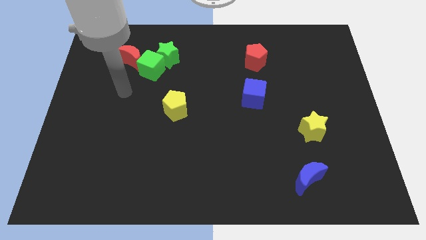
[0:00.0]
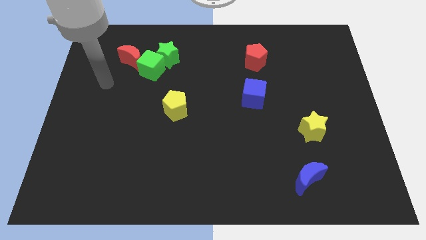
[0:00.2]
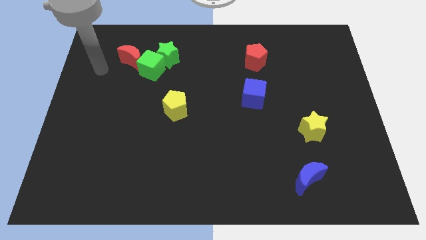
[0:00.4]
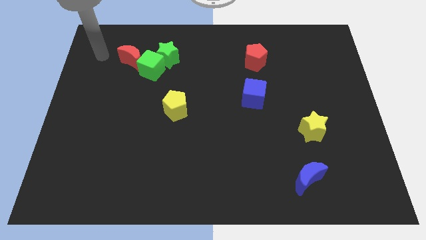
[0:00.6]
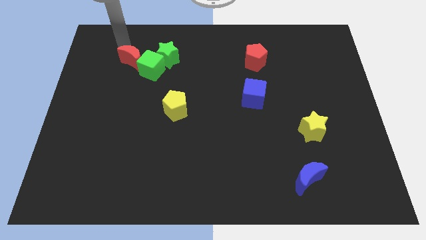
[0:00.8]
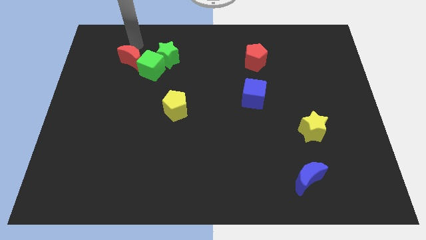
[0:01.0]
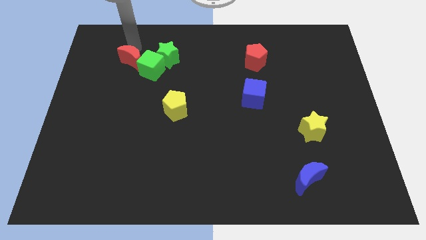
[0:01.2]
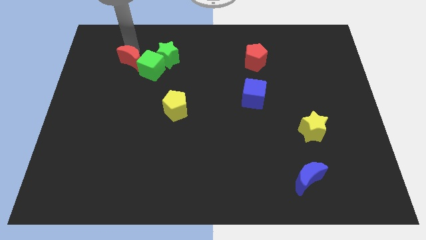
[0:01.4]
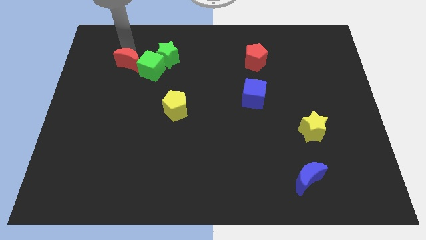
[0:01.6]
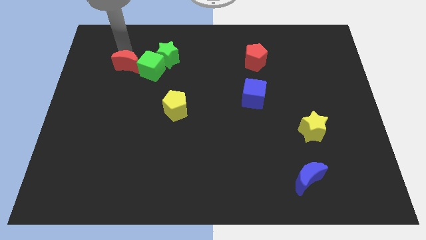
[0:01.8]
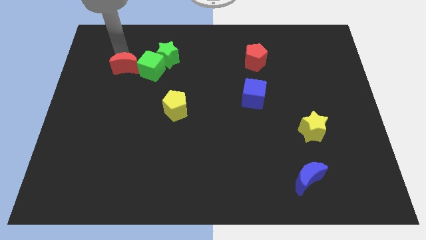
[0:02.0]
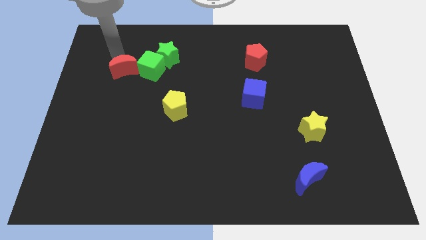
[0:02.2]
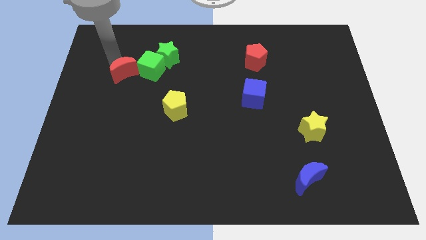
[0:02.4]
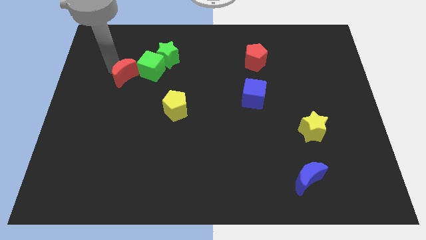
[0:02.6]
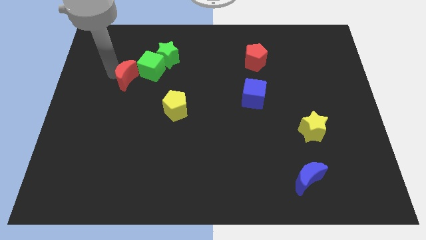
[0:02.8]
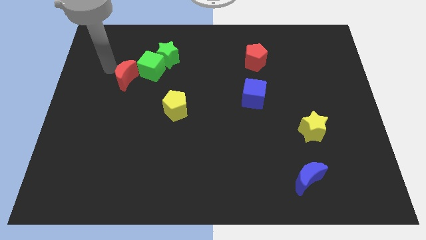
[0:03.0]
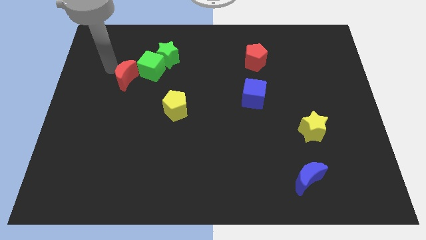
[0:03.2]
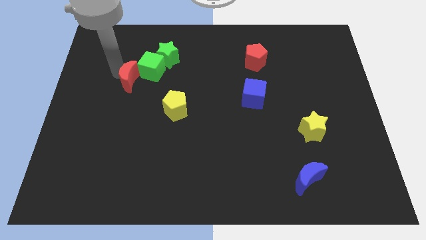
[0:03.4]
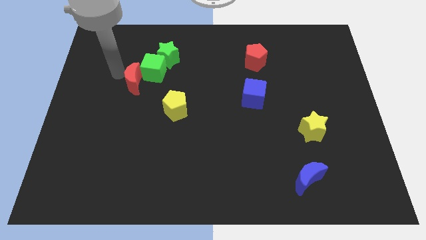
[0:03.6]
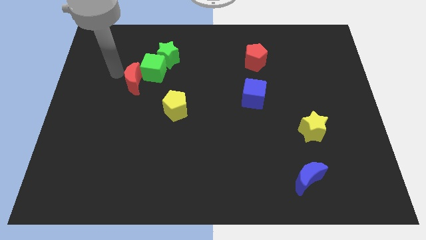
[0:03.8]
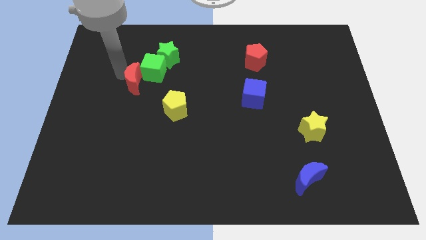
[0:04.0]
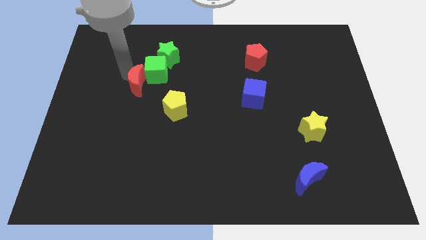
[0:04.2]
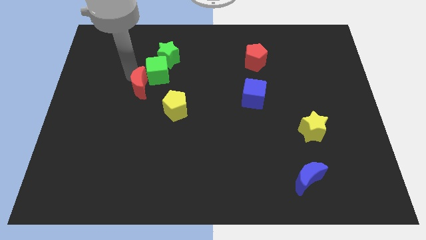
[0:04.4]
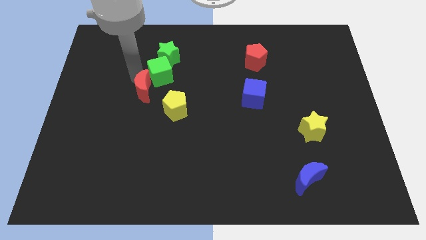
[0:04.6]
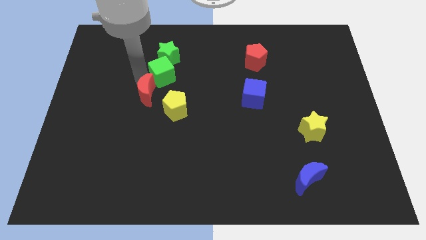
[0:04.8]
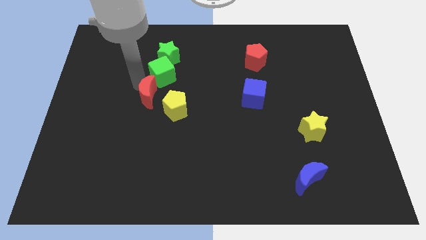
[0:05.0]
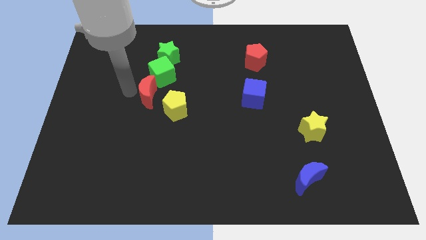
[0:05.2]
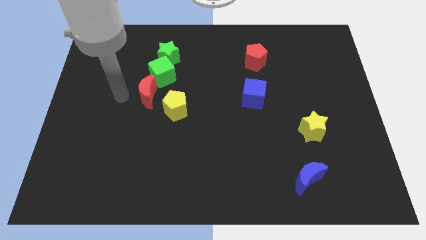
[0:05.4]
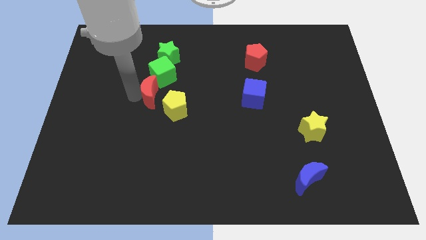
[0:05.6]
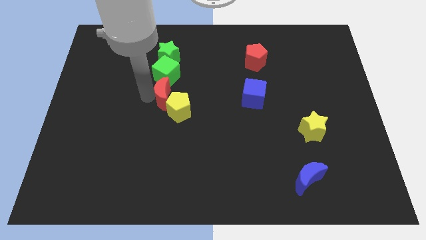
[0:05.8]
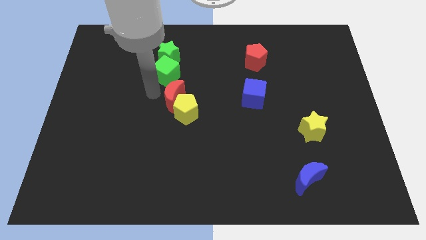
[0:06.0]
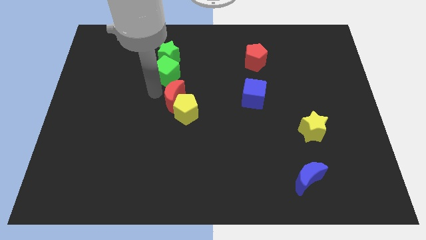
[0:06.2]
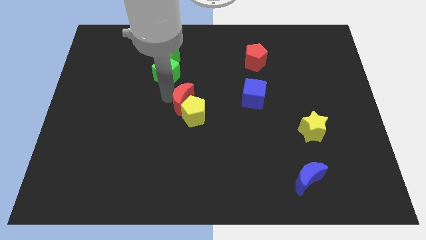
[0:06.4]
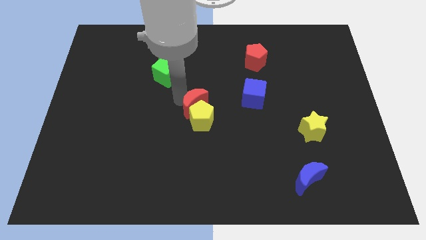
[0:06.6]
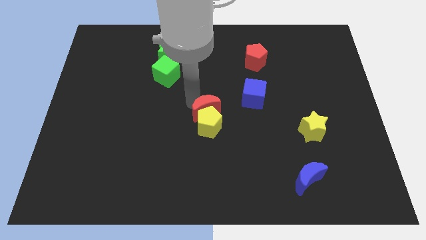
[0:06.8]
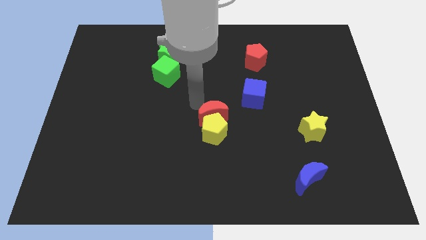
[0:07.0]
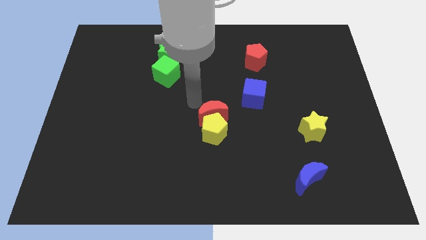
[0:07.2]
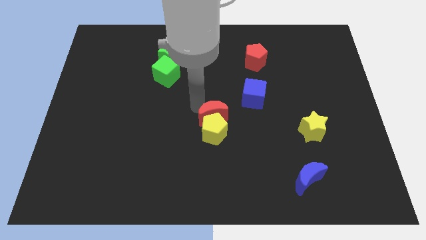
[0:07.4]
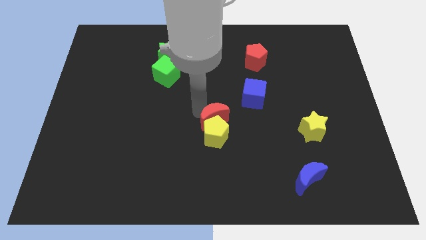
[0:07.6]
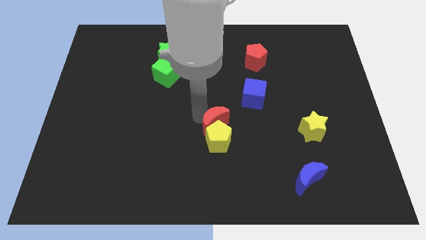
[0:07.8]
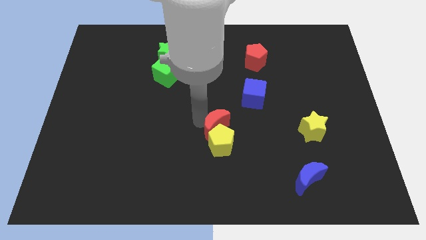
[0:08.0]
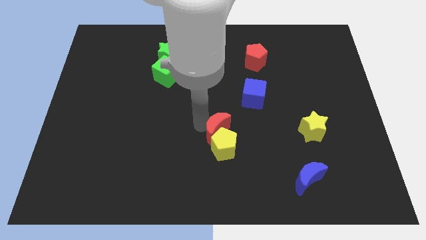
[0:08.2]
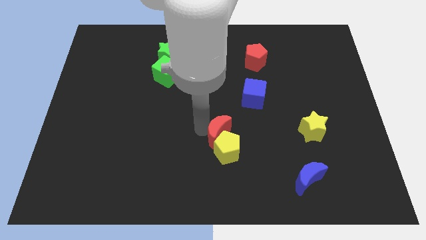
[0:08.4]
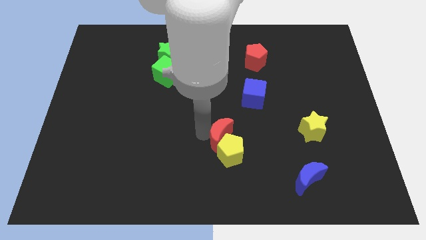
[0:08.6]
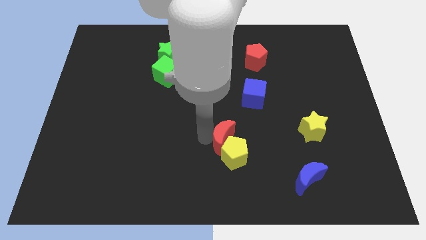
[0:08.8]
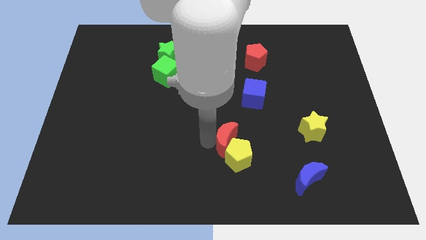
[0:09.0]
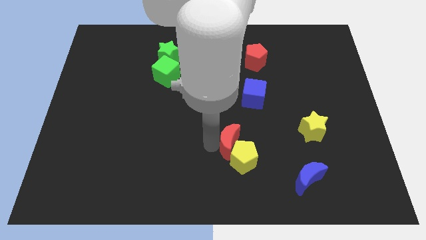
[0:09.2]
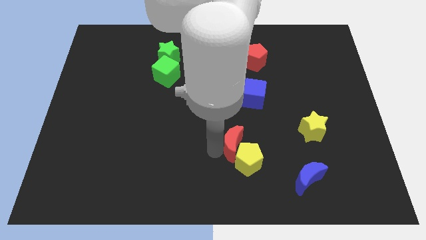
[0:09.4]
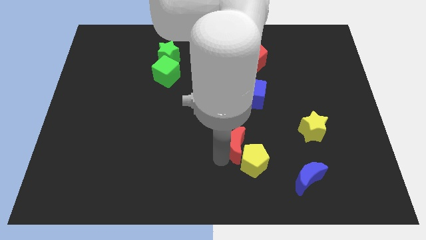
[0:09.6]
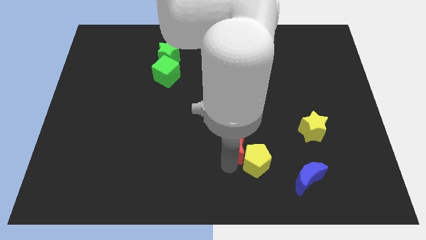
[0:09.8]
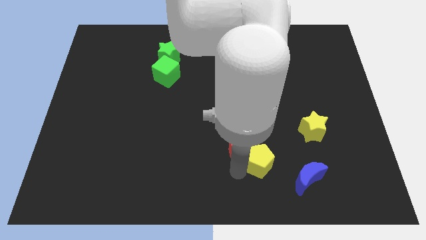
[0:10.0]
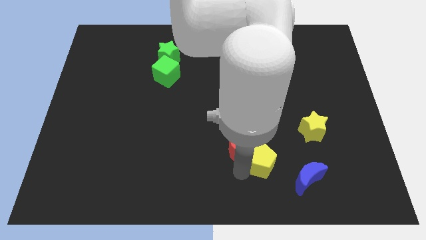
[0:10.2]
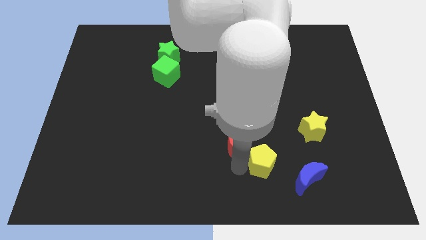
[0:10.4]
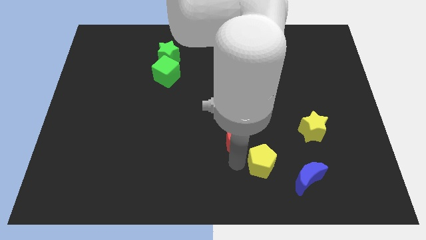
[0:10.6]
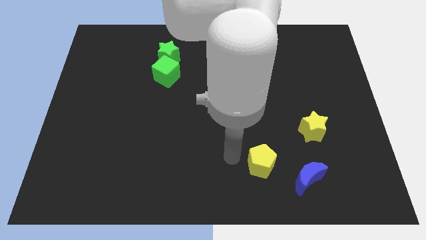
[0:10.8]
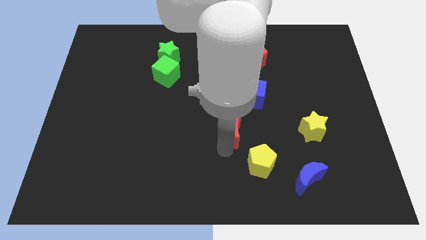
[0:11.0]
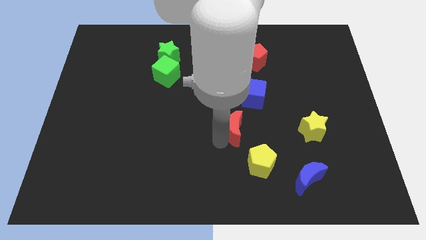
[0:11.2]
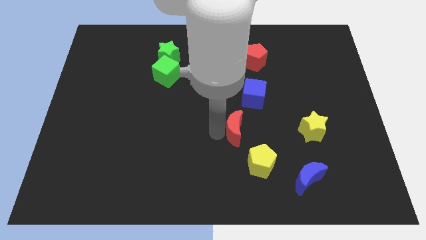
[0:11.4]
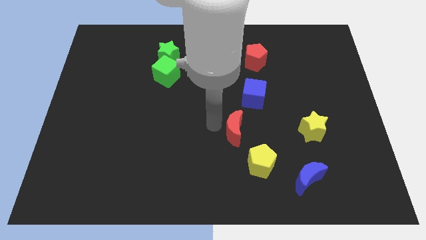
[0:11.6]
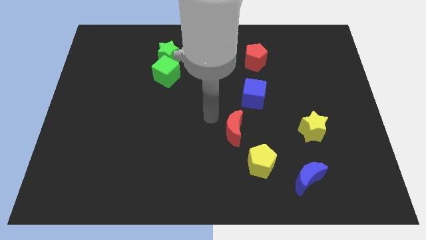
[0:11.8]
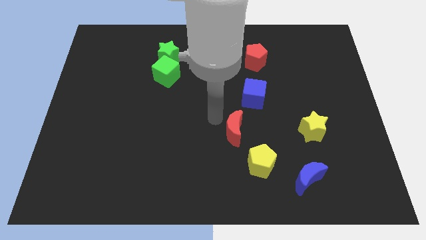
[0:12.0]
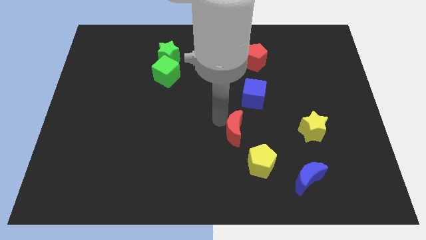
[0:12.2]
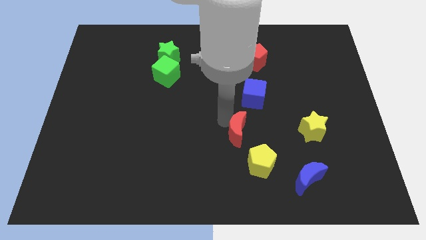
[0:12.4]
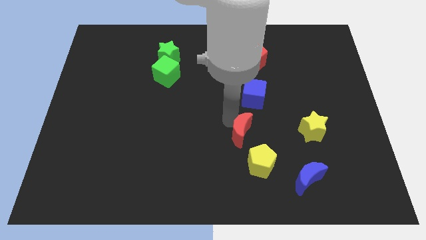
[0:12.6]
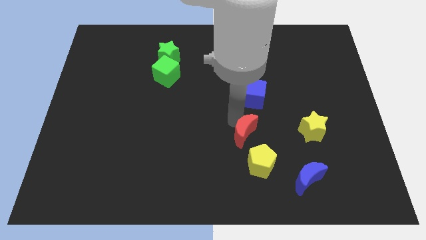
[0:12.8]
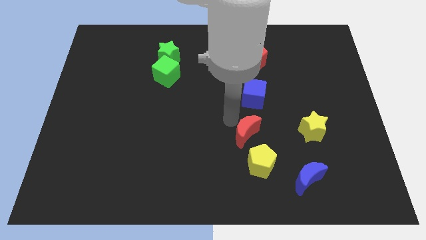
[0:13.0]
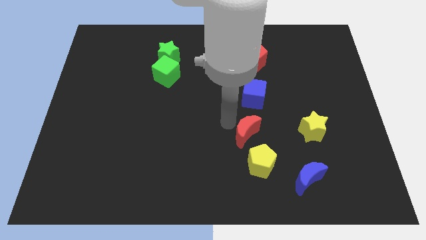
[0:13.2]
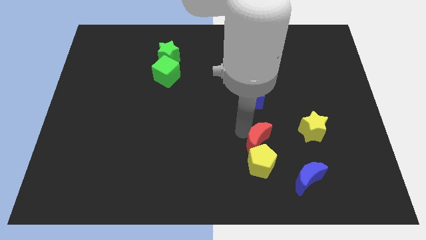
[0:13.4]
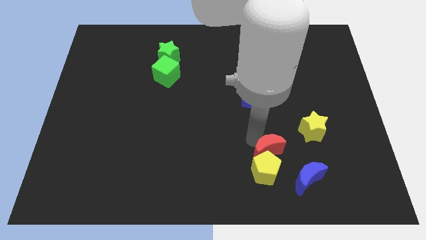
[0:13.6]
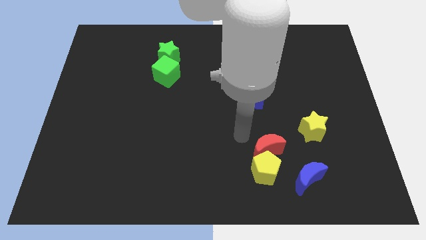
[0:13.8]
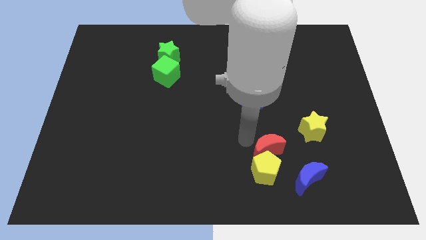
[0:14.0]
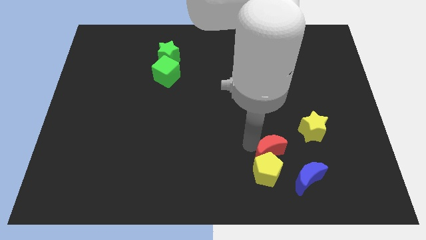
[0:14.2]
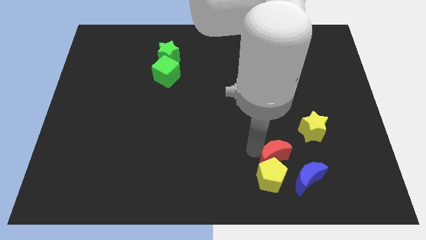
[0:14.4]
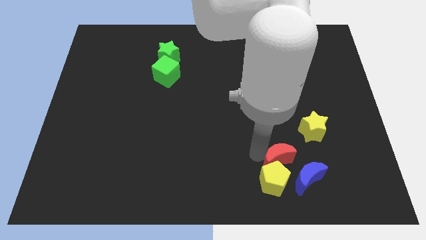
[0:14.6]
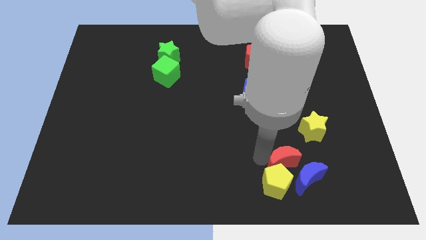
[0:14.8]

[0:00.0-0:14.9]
put the red moon next to the blue moon

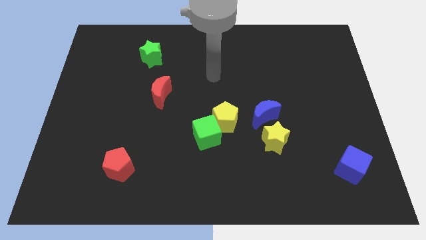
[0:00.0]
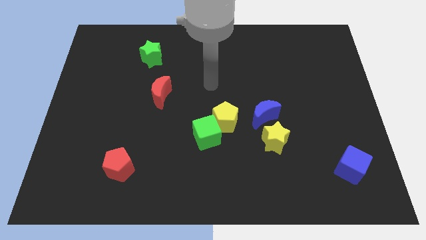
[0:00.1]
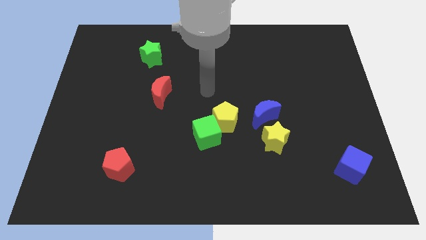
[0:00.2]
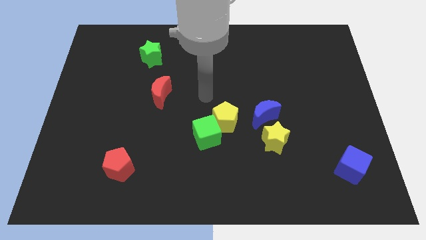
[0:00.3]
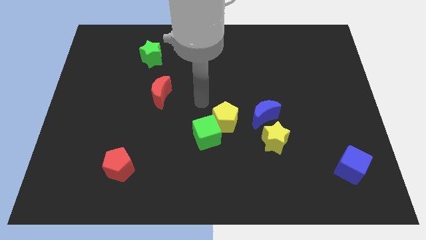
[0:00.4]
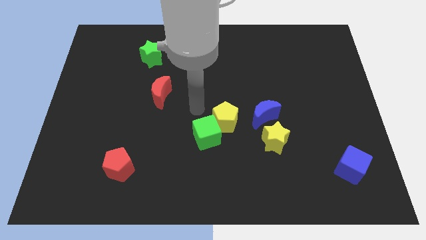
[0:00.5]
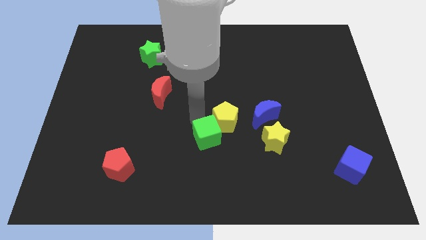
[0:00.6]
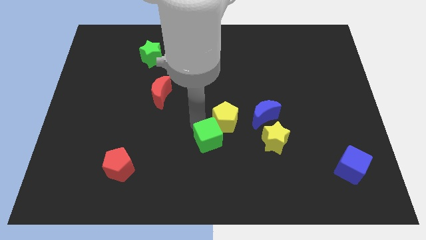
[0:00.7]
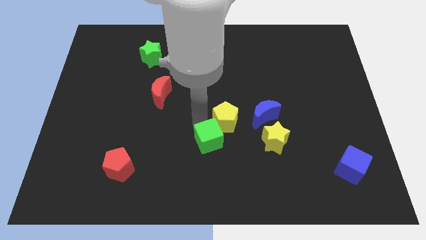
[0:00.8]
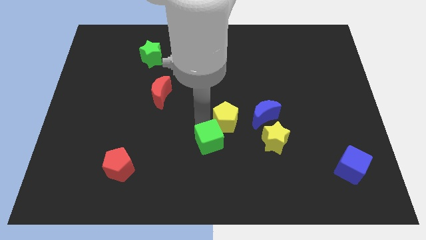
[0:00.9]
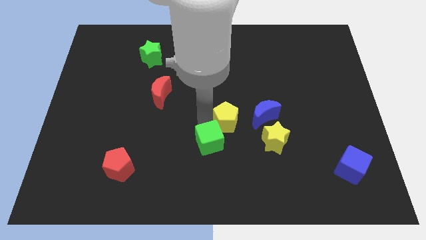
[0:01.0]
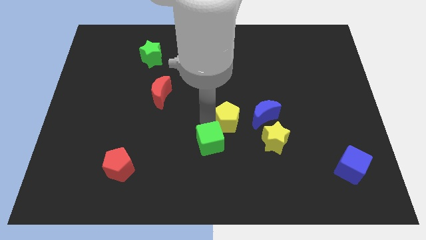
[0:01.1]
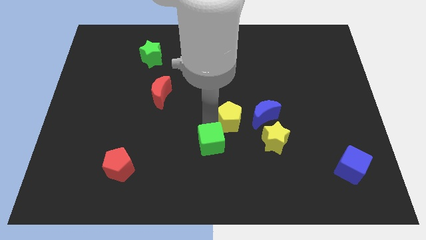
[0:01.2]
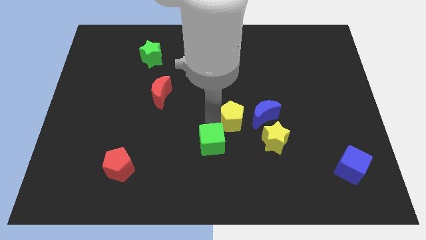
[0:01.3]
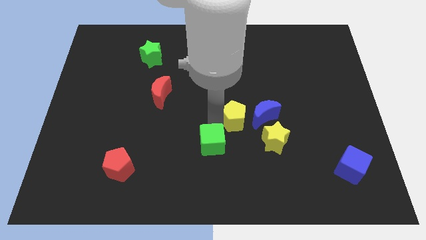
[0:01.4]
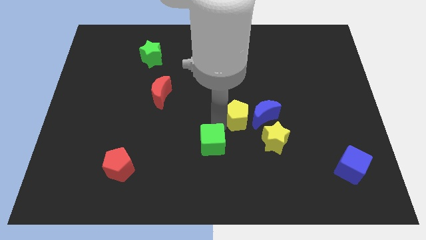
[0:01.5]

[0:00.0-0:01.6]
move the yellow pentagon next to the blue moon
